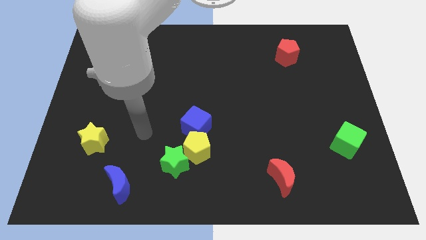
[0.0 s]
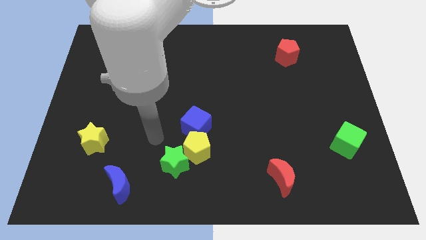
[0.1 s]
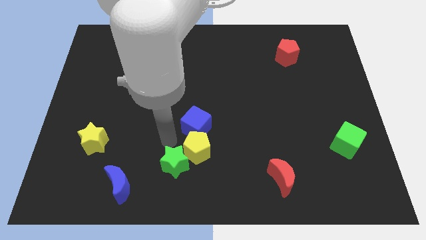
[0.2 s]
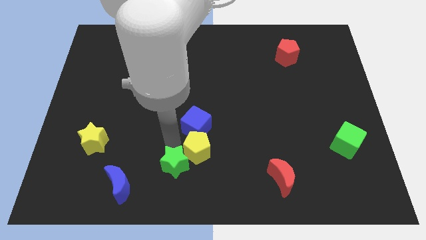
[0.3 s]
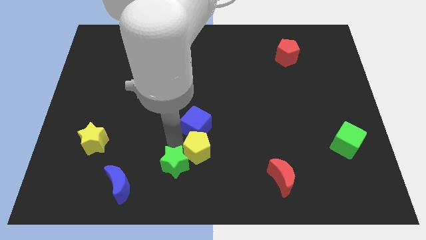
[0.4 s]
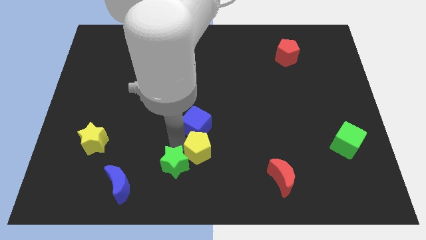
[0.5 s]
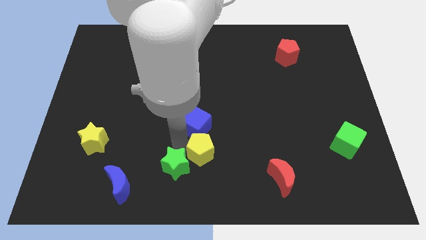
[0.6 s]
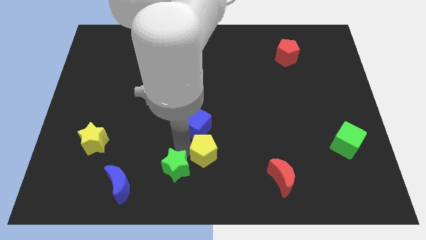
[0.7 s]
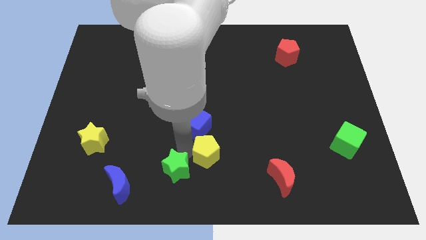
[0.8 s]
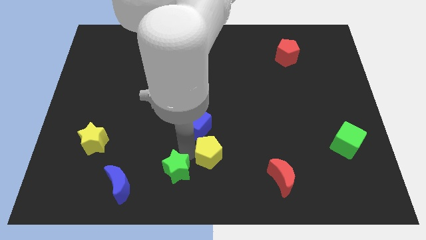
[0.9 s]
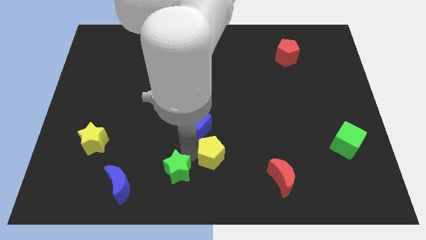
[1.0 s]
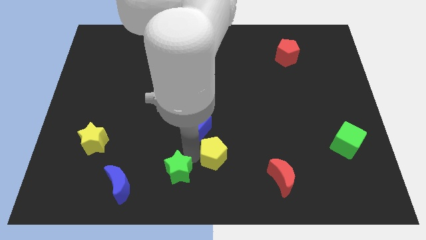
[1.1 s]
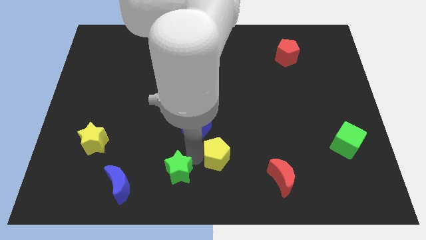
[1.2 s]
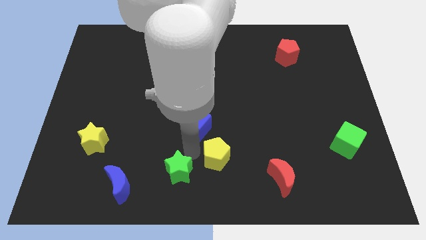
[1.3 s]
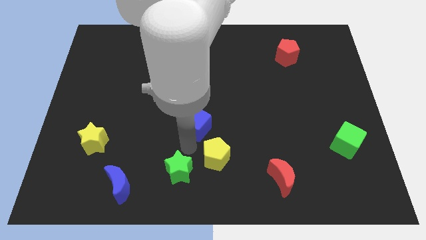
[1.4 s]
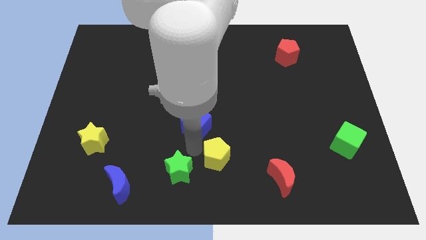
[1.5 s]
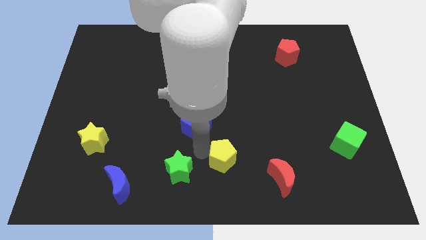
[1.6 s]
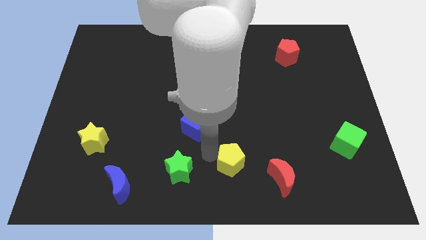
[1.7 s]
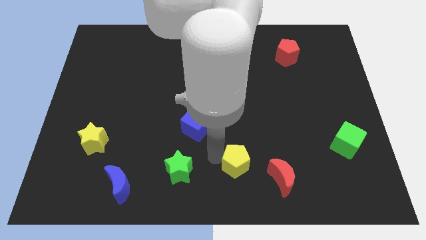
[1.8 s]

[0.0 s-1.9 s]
pull the yellow pentagon apart from the green star and blue cube

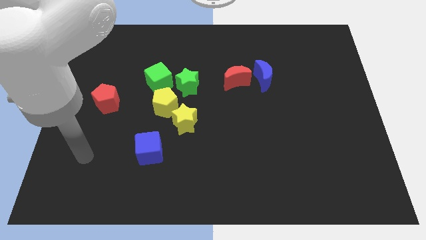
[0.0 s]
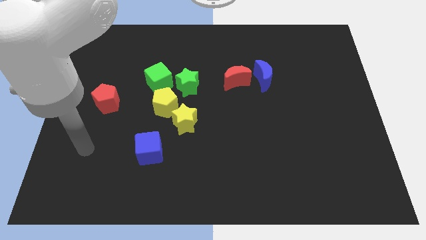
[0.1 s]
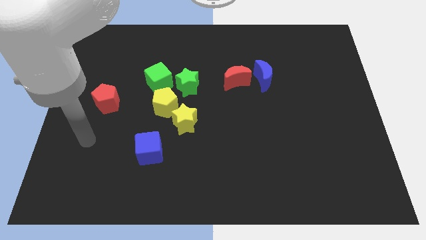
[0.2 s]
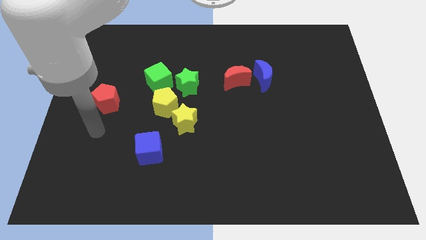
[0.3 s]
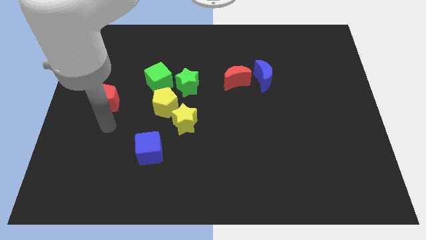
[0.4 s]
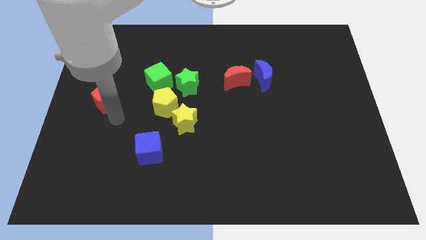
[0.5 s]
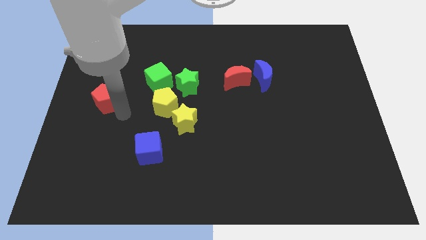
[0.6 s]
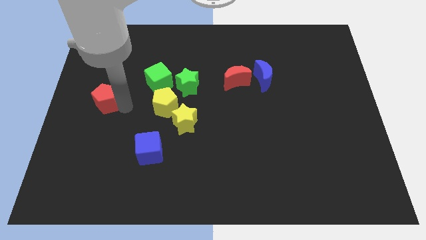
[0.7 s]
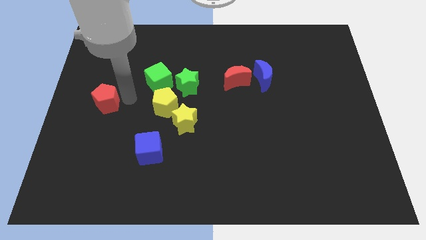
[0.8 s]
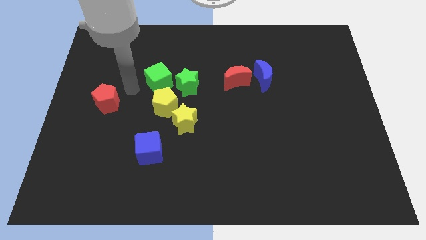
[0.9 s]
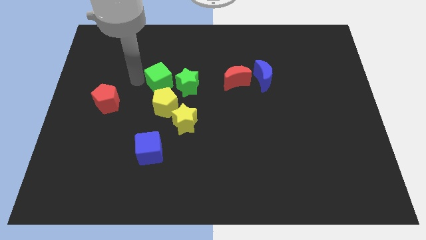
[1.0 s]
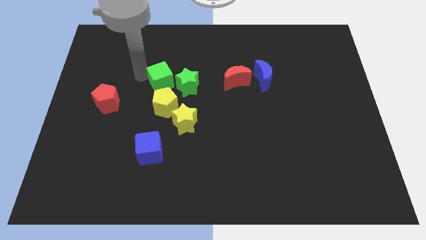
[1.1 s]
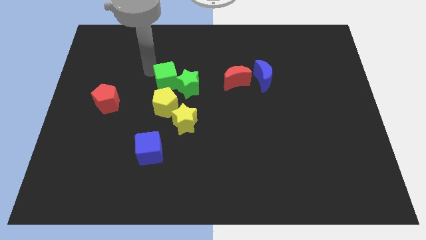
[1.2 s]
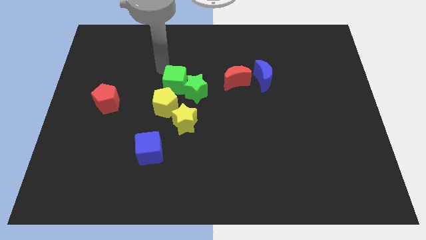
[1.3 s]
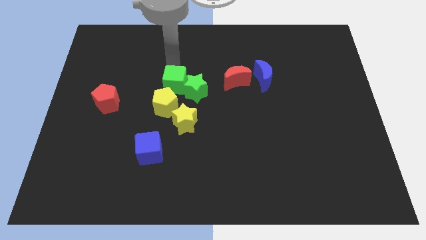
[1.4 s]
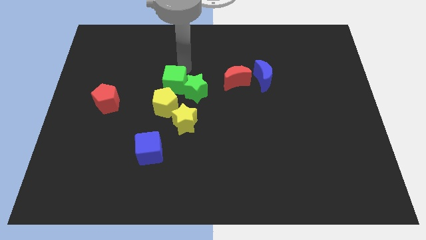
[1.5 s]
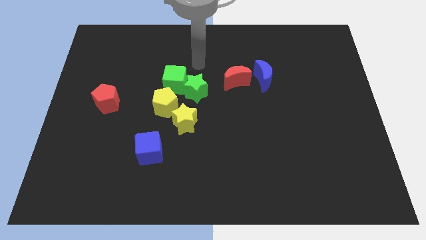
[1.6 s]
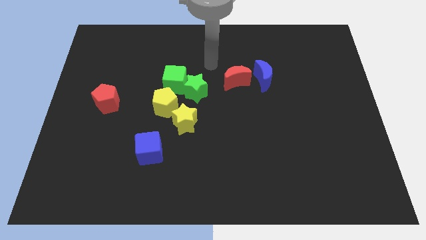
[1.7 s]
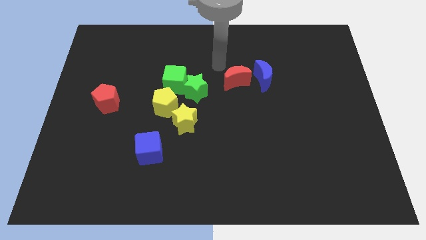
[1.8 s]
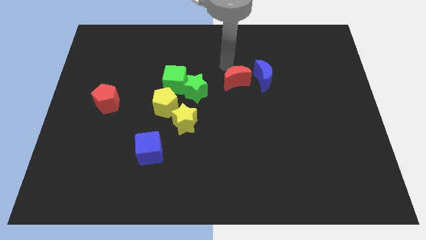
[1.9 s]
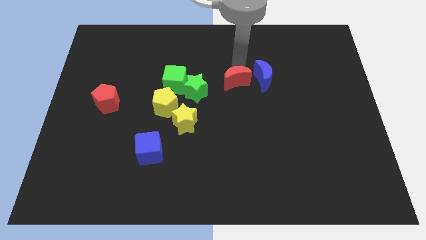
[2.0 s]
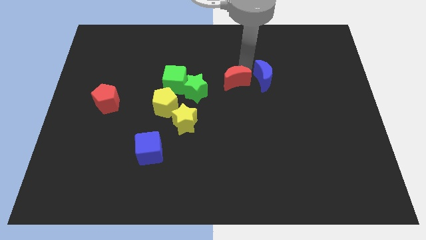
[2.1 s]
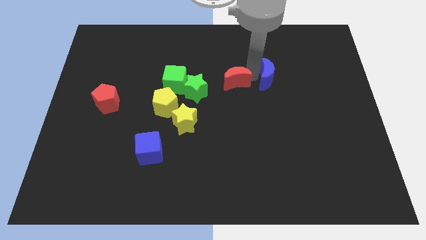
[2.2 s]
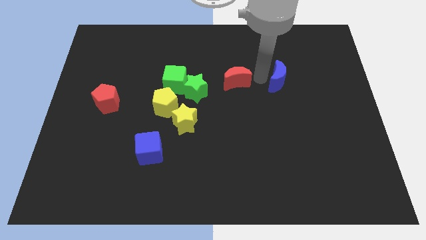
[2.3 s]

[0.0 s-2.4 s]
move the red moon away from the blue moon

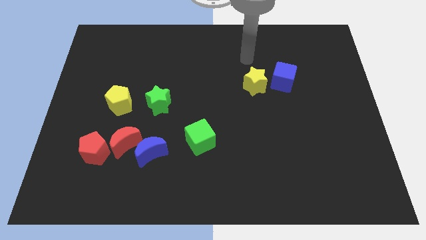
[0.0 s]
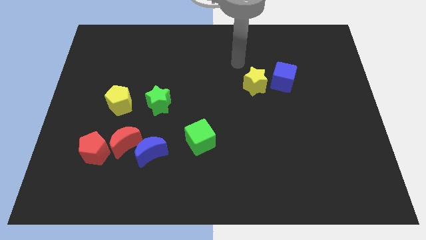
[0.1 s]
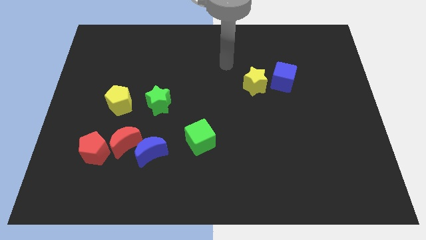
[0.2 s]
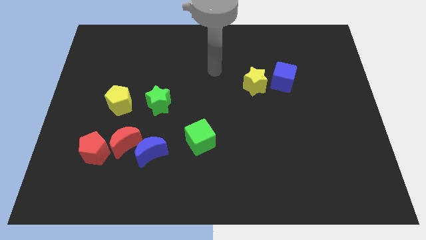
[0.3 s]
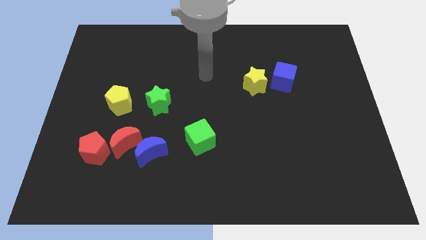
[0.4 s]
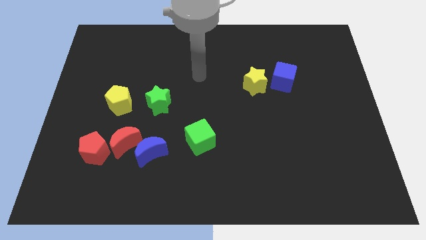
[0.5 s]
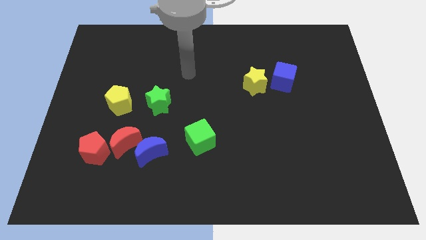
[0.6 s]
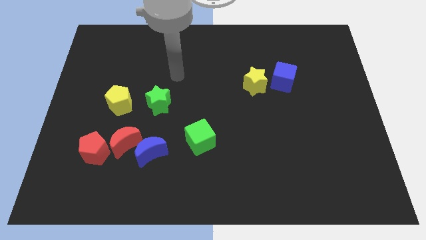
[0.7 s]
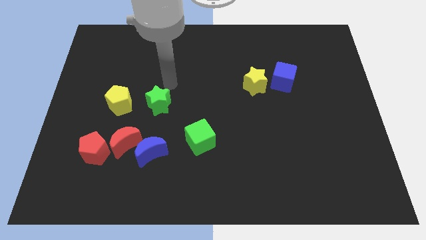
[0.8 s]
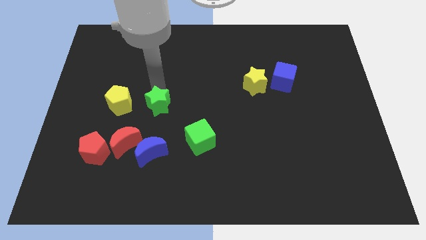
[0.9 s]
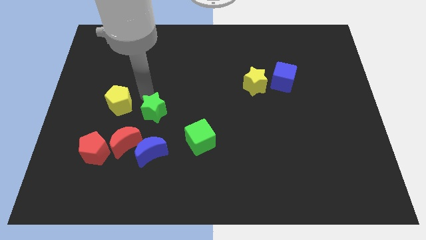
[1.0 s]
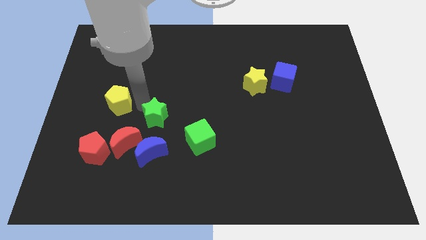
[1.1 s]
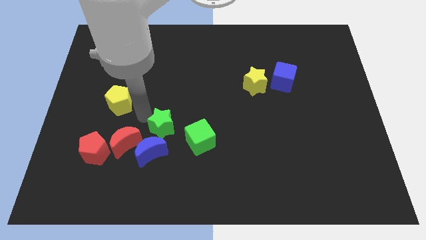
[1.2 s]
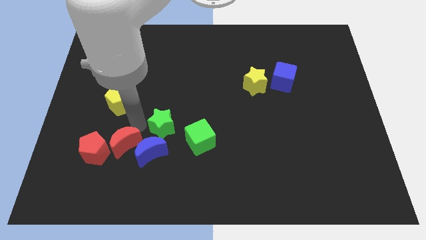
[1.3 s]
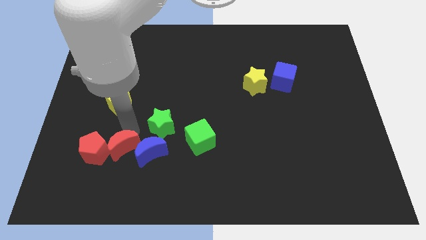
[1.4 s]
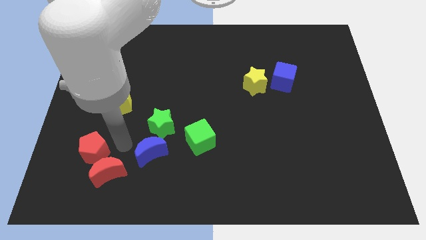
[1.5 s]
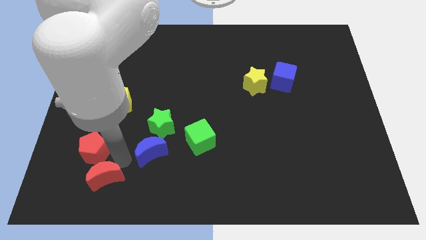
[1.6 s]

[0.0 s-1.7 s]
pull the blue moon apart from the red moon

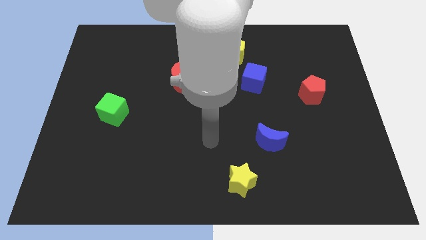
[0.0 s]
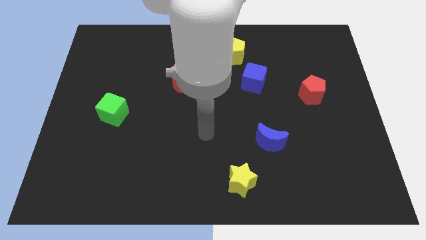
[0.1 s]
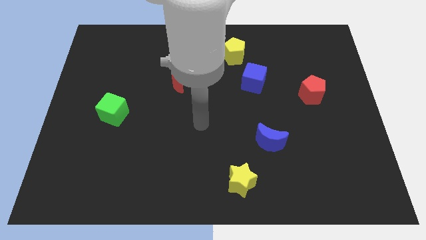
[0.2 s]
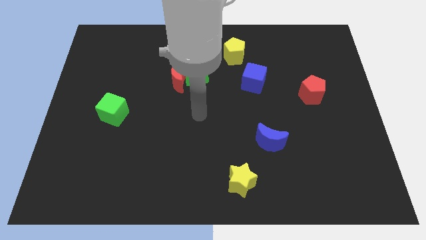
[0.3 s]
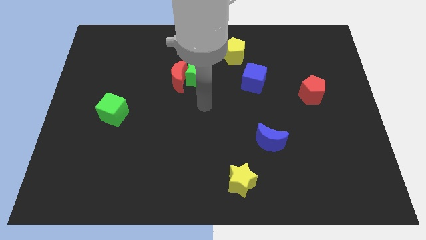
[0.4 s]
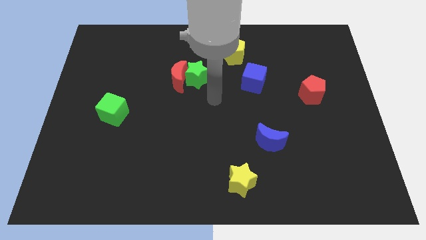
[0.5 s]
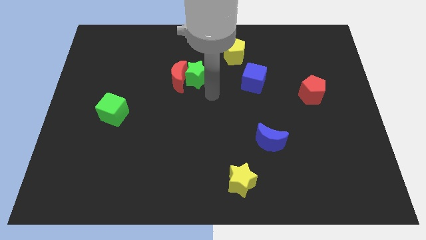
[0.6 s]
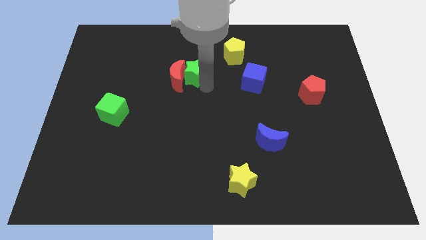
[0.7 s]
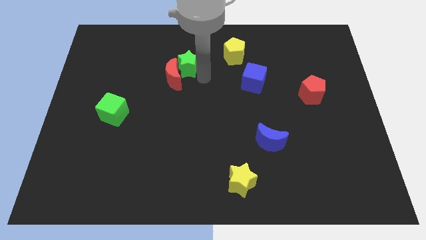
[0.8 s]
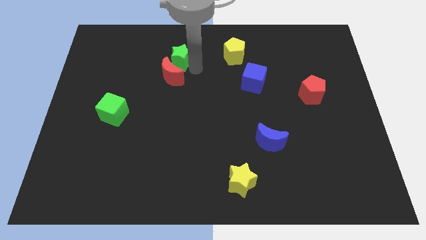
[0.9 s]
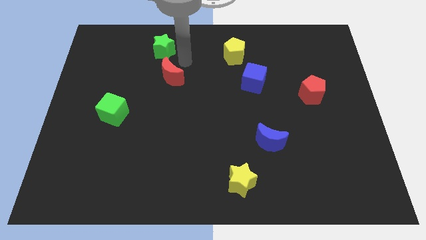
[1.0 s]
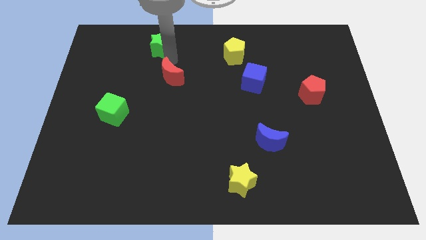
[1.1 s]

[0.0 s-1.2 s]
pull the red moon apart from the green star

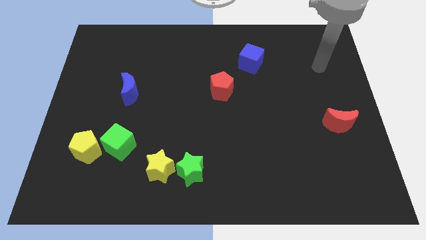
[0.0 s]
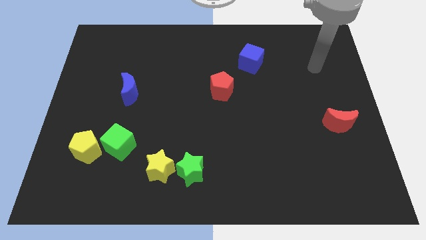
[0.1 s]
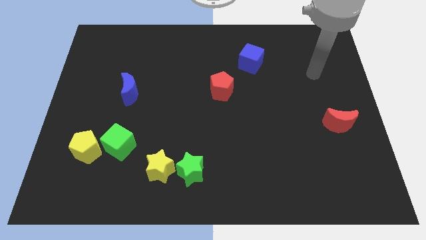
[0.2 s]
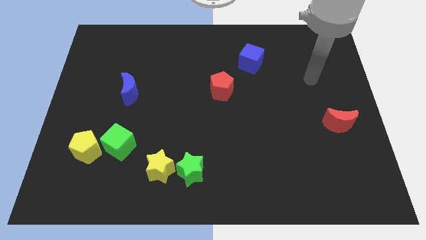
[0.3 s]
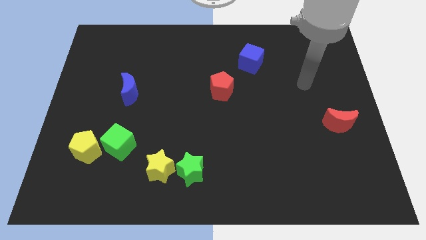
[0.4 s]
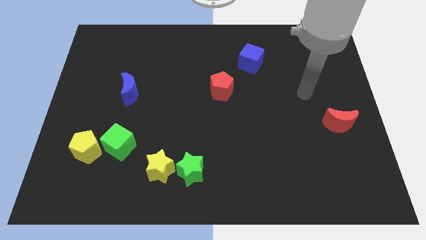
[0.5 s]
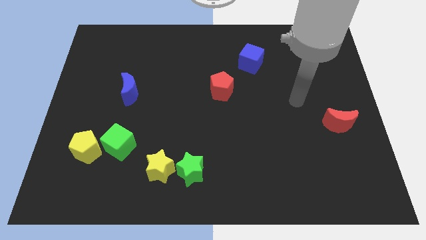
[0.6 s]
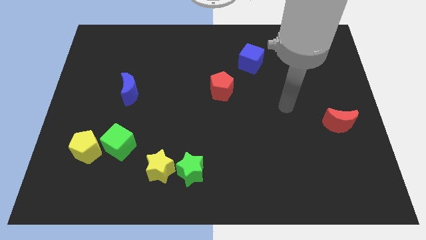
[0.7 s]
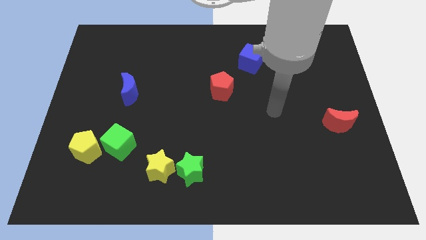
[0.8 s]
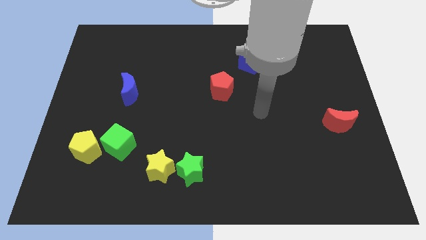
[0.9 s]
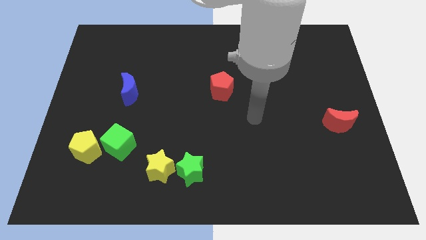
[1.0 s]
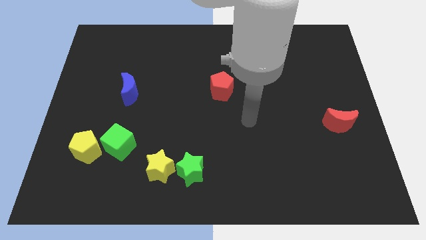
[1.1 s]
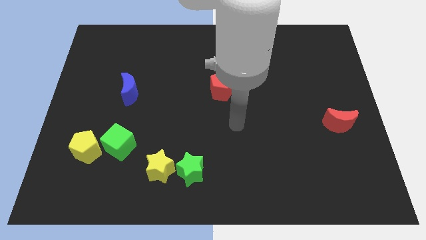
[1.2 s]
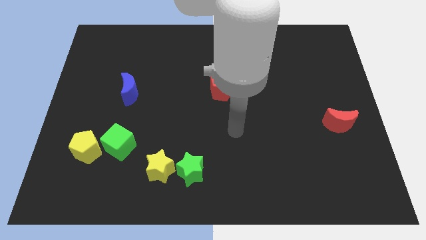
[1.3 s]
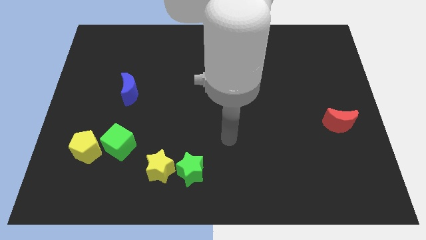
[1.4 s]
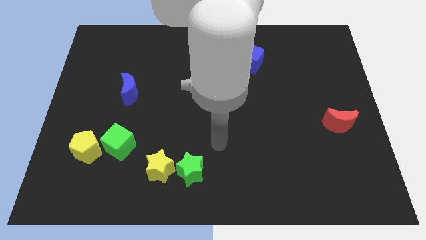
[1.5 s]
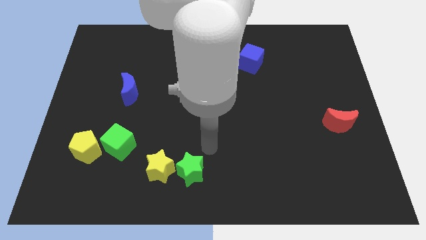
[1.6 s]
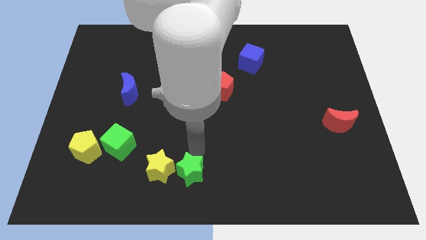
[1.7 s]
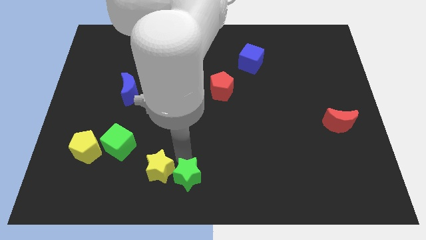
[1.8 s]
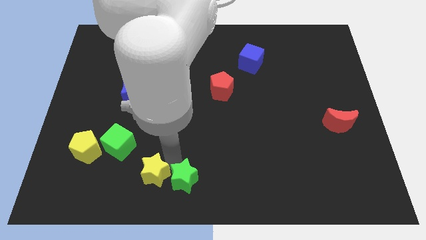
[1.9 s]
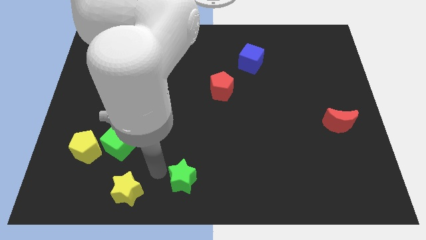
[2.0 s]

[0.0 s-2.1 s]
pull the green star apart from the yellow star
